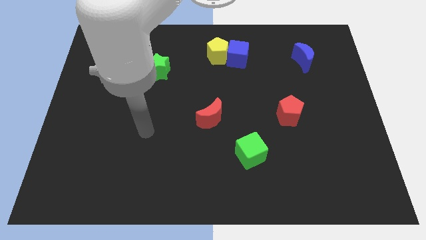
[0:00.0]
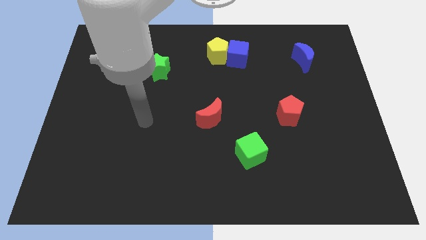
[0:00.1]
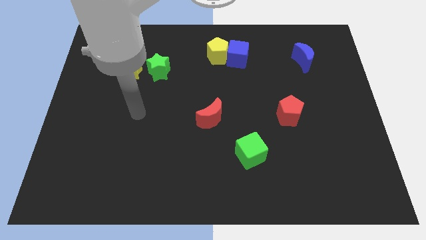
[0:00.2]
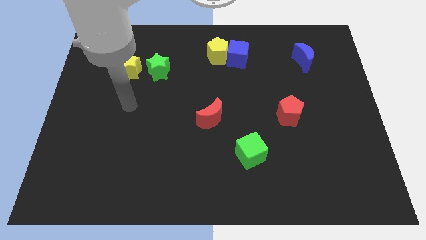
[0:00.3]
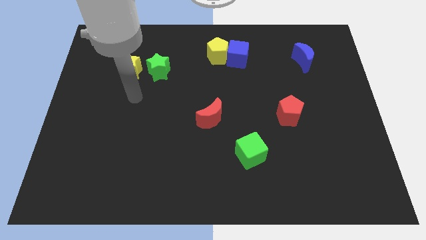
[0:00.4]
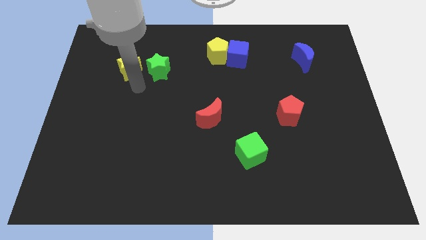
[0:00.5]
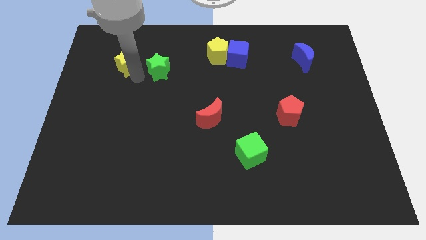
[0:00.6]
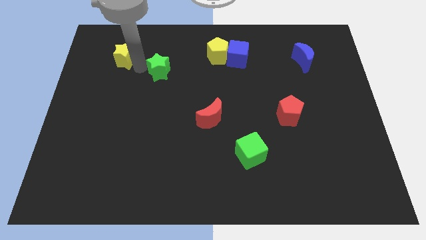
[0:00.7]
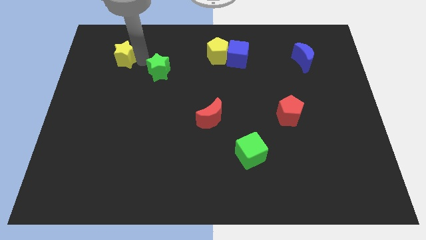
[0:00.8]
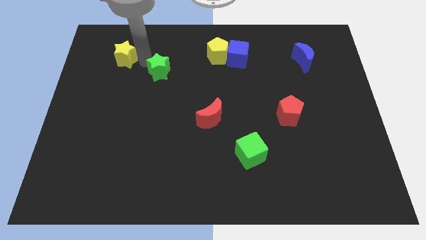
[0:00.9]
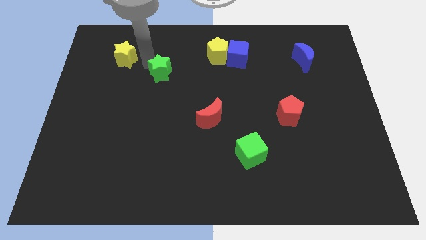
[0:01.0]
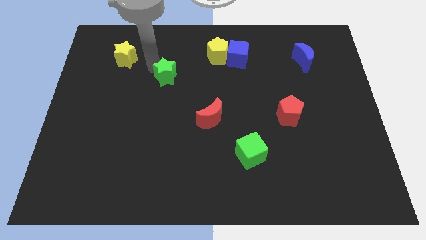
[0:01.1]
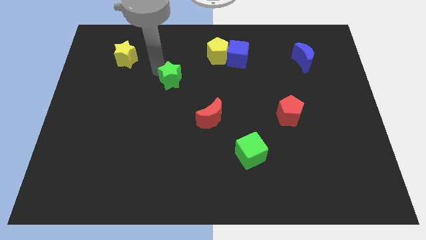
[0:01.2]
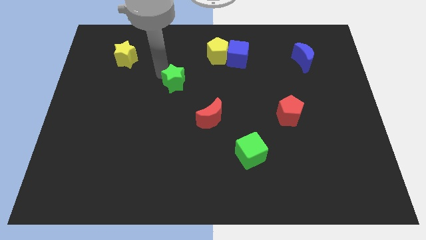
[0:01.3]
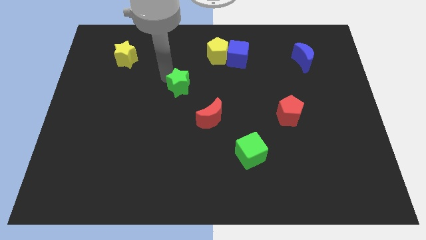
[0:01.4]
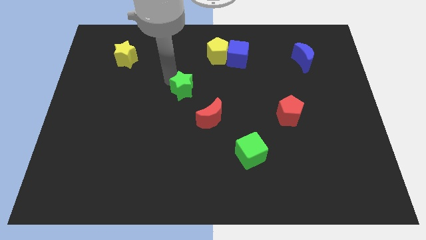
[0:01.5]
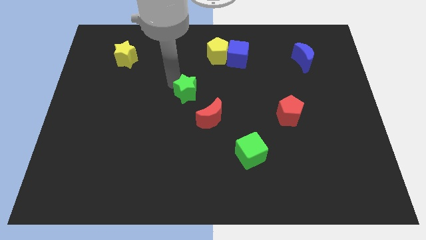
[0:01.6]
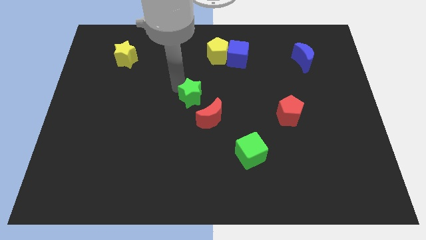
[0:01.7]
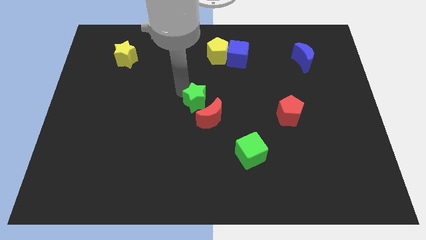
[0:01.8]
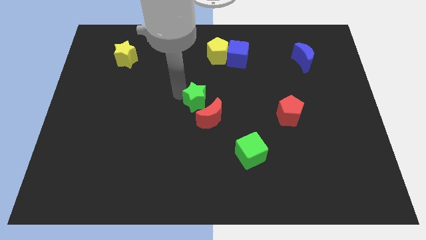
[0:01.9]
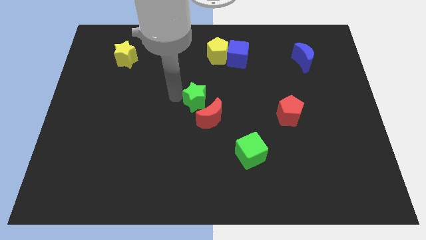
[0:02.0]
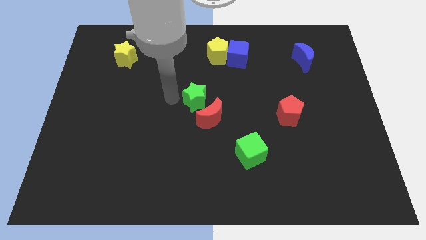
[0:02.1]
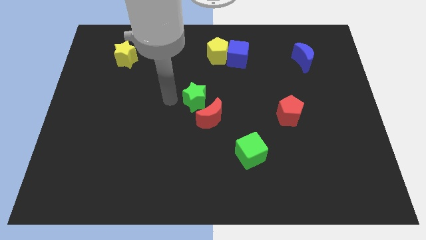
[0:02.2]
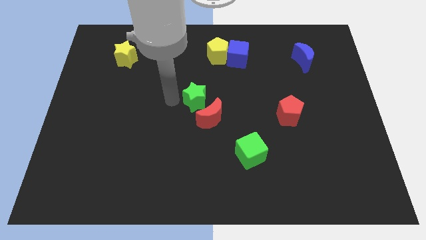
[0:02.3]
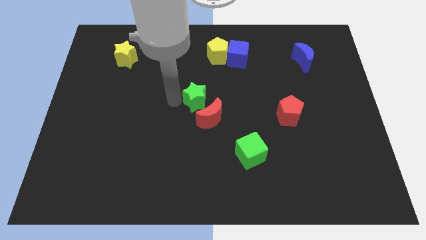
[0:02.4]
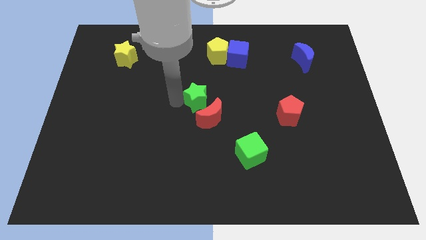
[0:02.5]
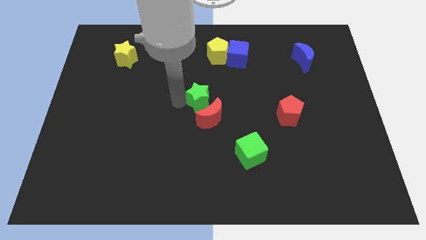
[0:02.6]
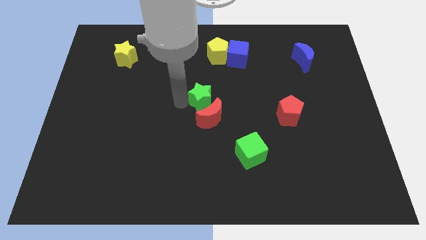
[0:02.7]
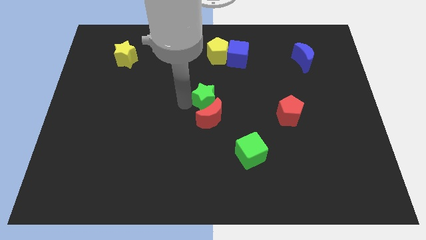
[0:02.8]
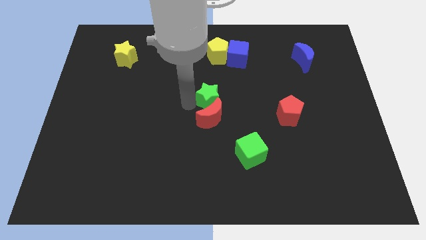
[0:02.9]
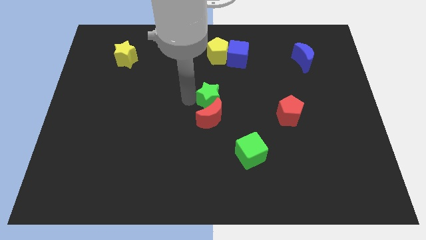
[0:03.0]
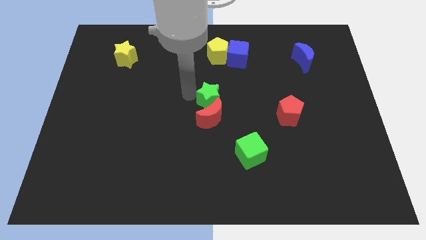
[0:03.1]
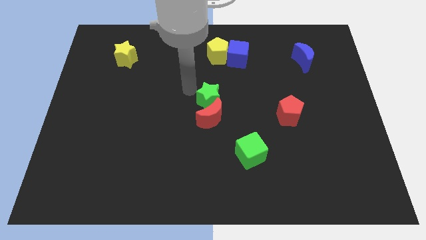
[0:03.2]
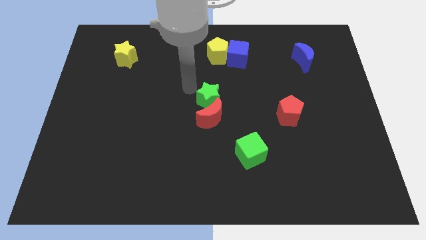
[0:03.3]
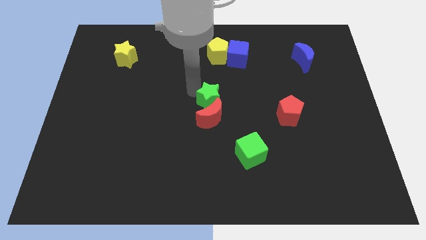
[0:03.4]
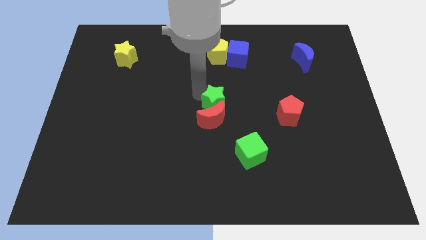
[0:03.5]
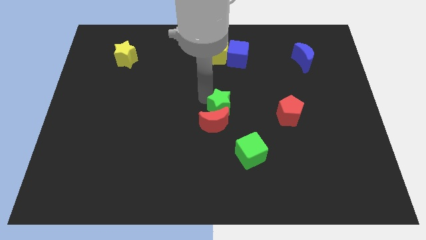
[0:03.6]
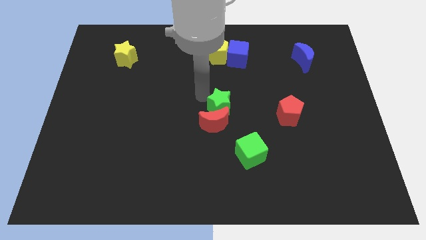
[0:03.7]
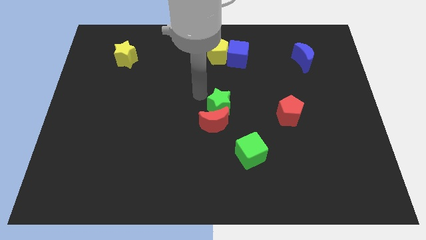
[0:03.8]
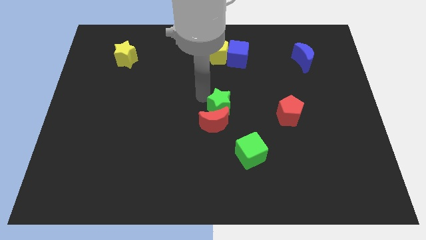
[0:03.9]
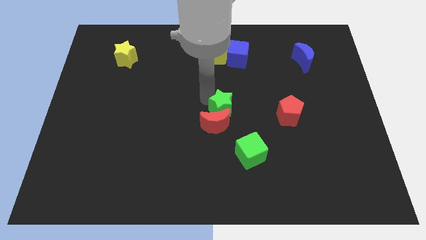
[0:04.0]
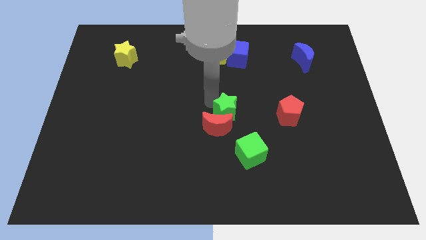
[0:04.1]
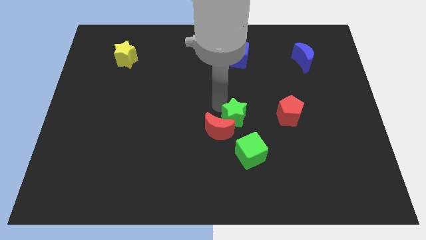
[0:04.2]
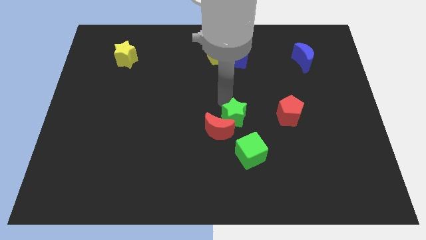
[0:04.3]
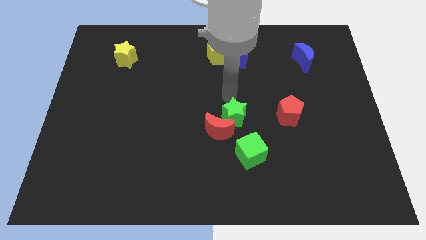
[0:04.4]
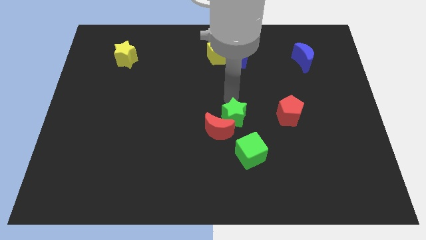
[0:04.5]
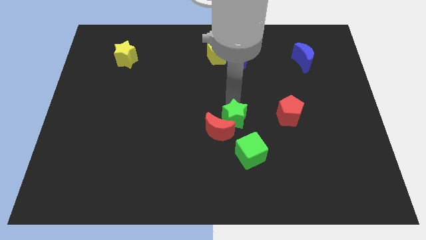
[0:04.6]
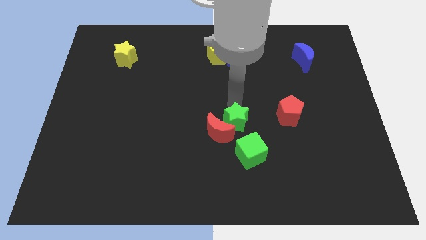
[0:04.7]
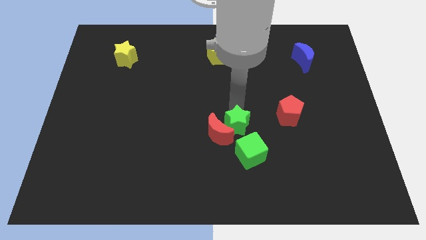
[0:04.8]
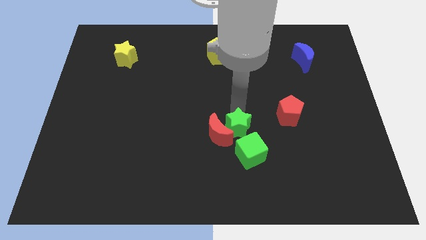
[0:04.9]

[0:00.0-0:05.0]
push the green star to the bottom right of the red moon
